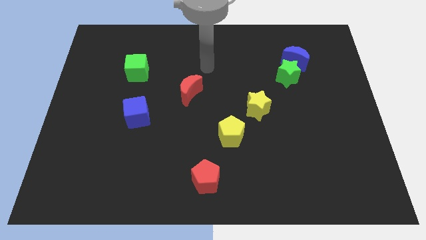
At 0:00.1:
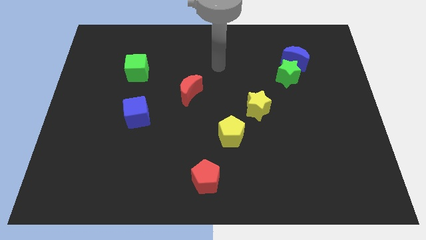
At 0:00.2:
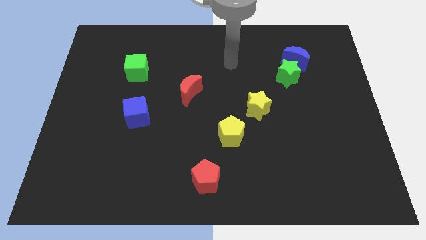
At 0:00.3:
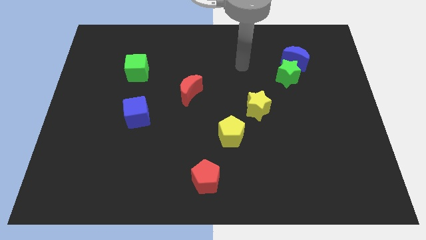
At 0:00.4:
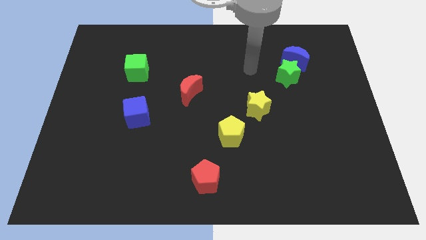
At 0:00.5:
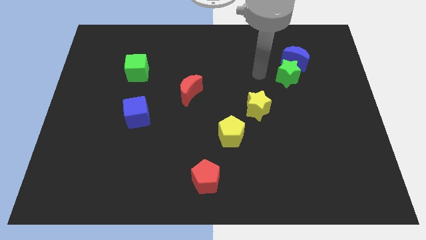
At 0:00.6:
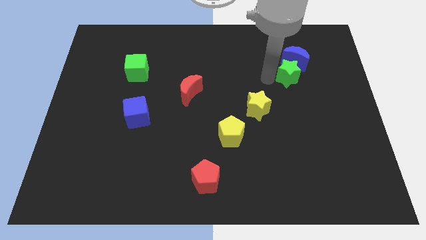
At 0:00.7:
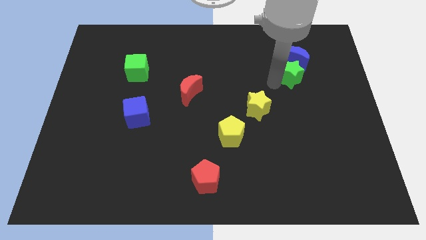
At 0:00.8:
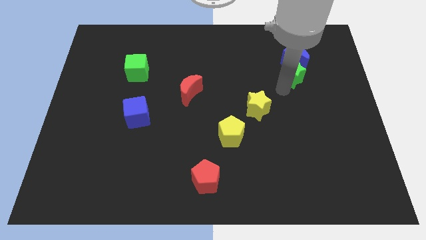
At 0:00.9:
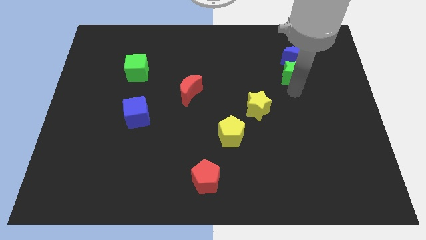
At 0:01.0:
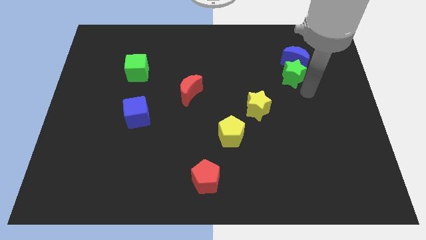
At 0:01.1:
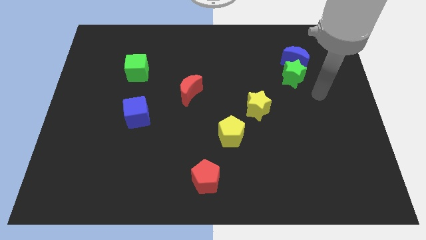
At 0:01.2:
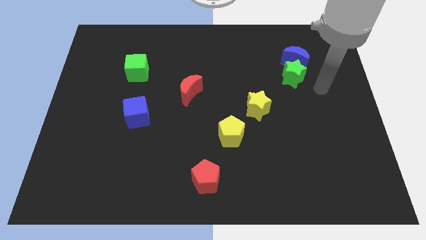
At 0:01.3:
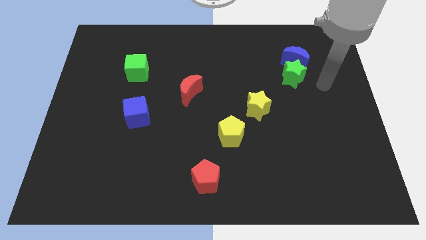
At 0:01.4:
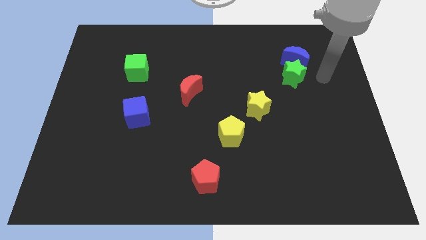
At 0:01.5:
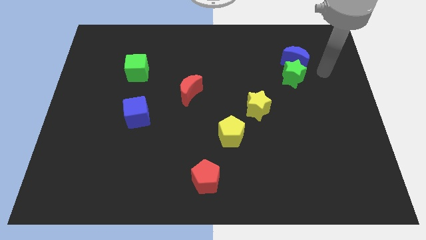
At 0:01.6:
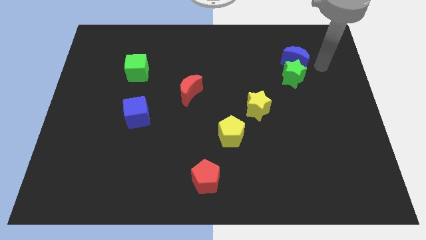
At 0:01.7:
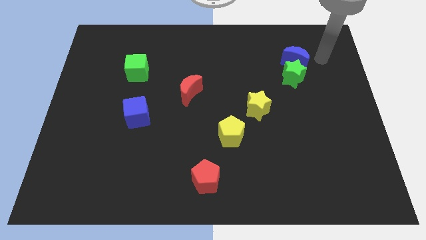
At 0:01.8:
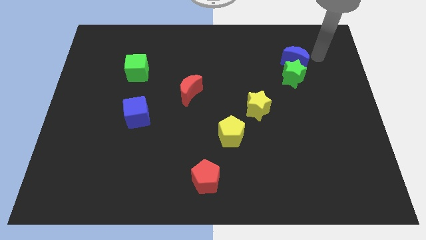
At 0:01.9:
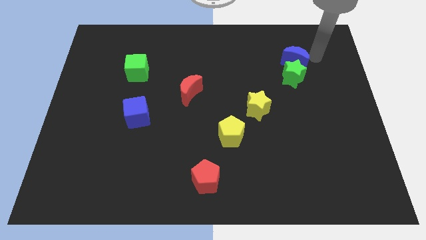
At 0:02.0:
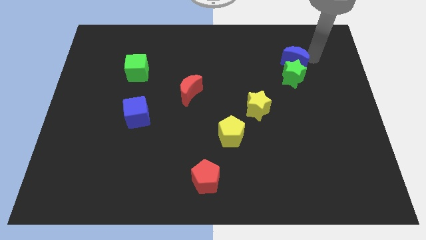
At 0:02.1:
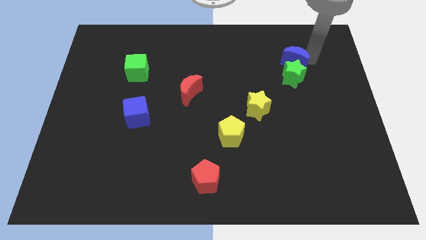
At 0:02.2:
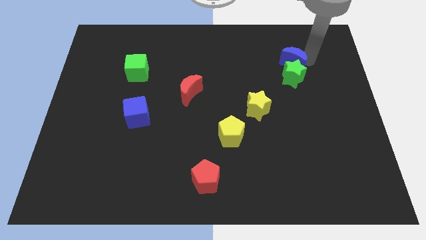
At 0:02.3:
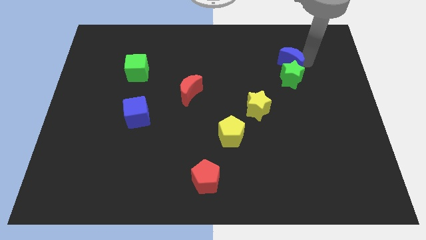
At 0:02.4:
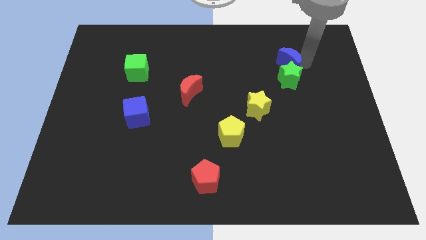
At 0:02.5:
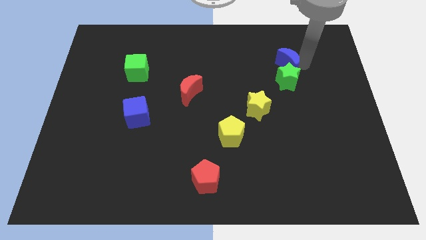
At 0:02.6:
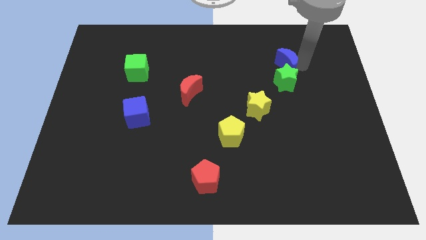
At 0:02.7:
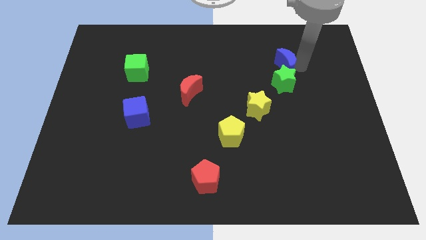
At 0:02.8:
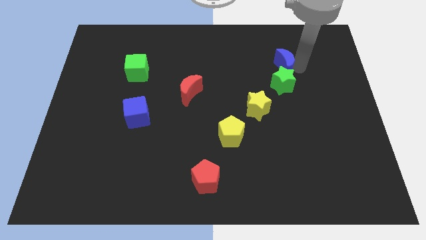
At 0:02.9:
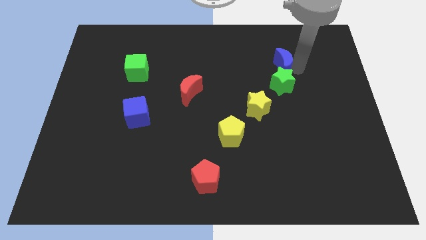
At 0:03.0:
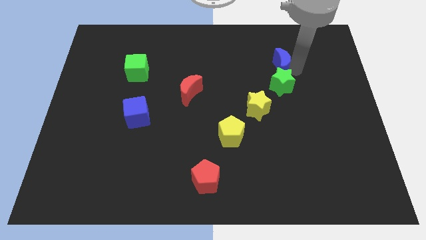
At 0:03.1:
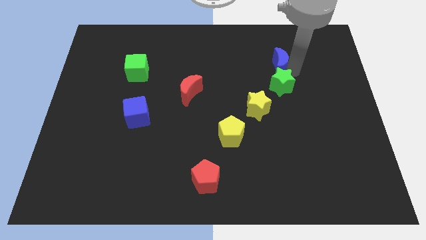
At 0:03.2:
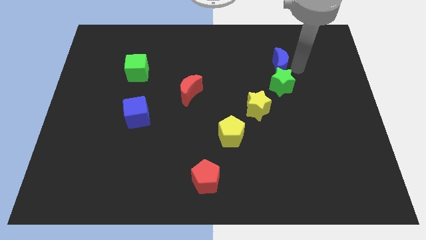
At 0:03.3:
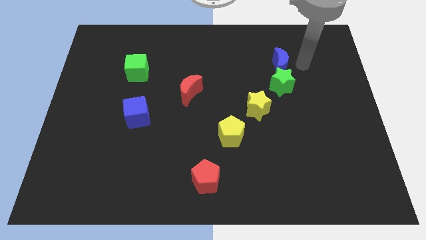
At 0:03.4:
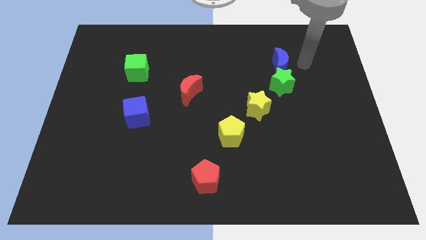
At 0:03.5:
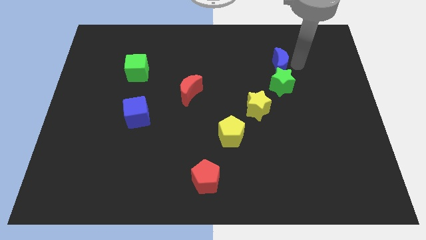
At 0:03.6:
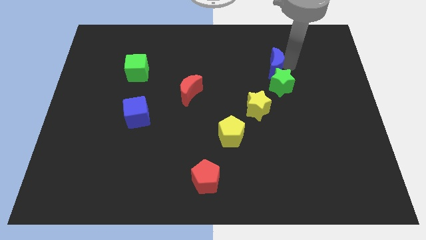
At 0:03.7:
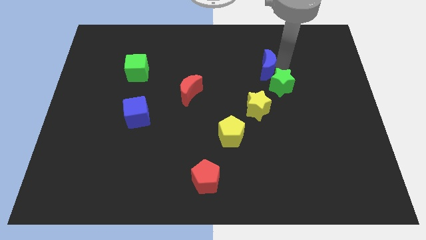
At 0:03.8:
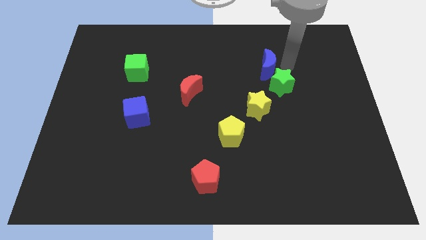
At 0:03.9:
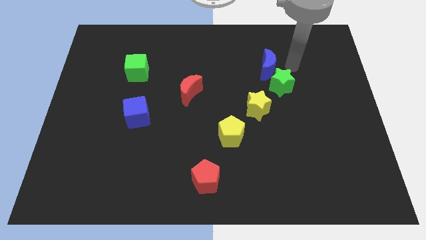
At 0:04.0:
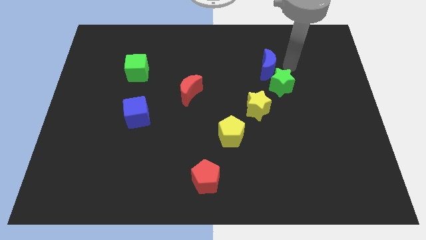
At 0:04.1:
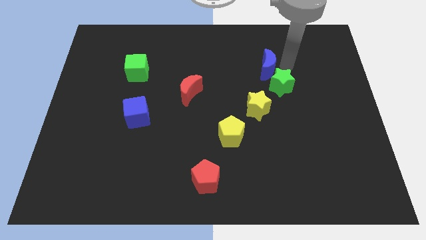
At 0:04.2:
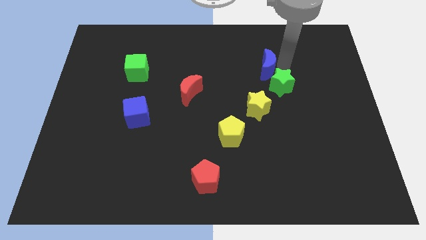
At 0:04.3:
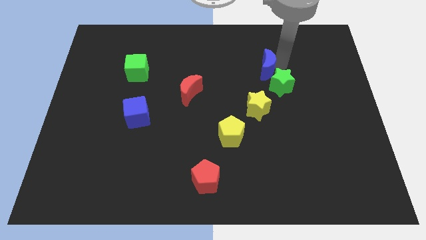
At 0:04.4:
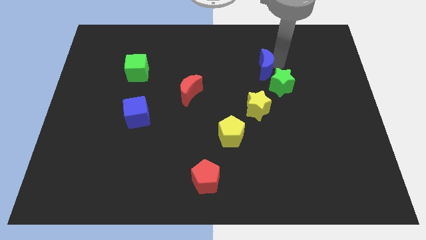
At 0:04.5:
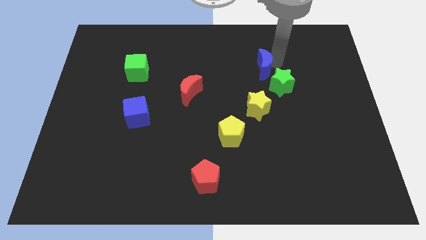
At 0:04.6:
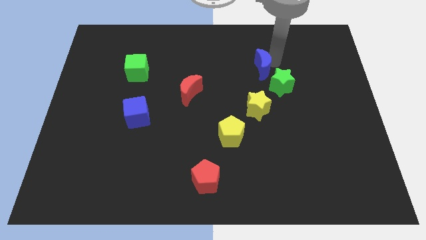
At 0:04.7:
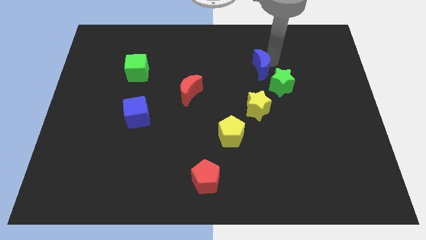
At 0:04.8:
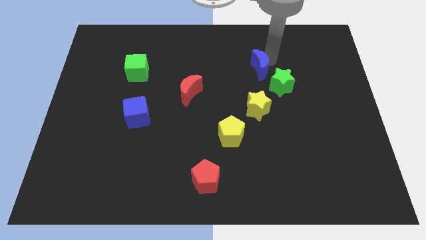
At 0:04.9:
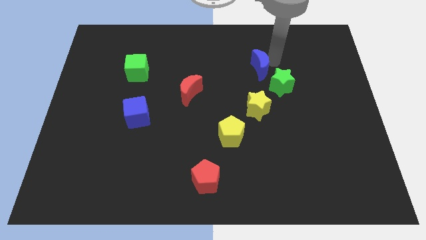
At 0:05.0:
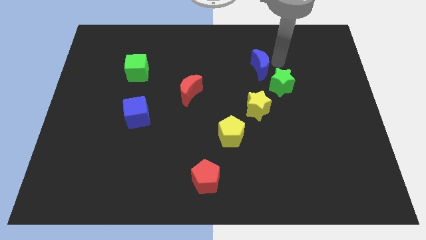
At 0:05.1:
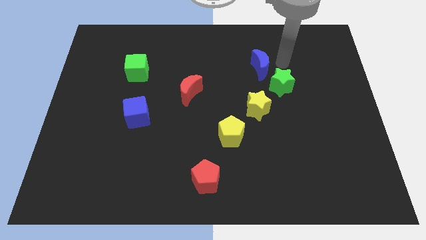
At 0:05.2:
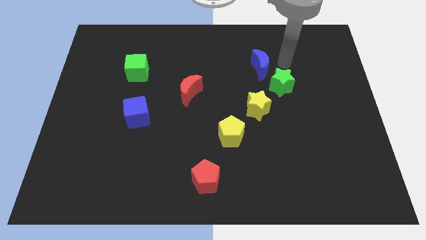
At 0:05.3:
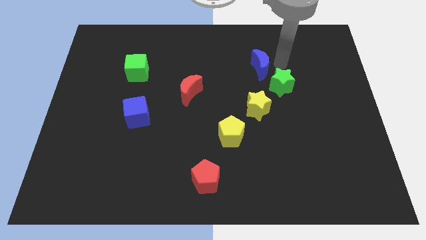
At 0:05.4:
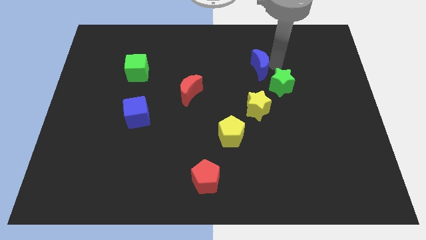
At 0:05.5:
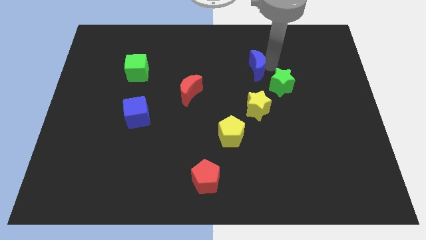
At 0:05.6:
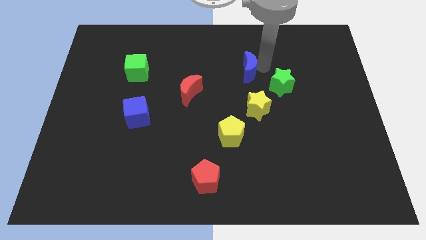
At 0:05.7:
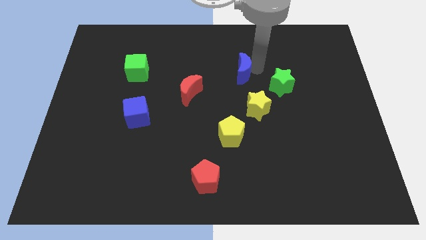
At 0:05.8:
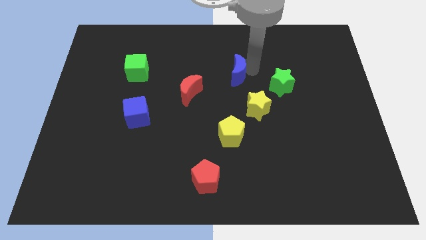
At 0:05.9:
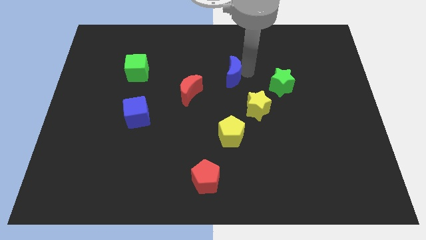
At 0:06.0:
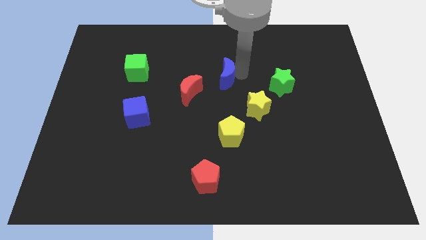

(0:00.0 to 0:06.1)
put the blue moon diagonally up and to the right of the red moon

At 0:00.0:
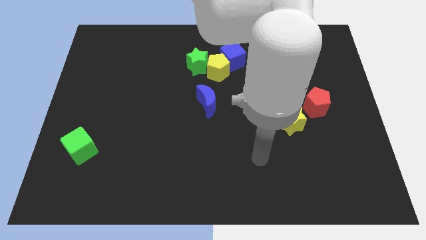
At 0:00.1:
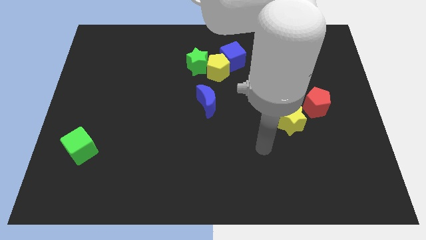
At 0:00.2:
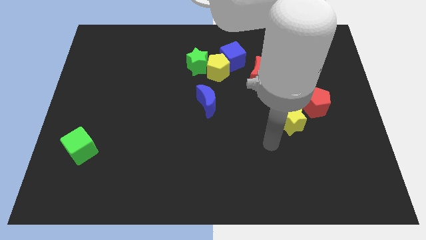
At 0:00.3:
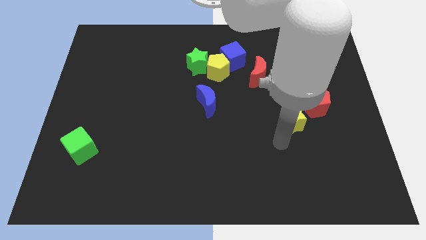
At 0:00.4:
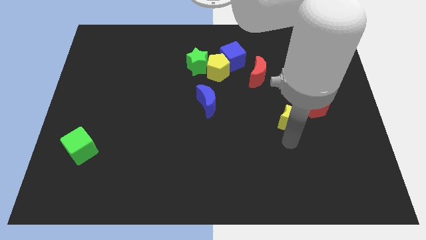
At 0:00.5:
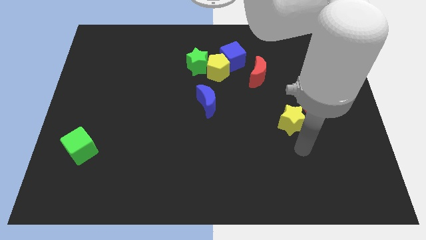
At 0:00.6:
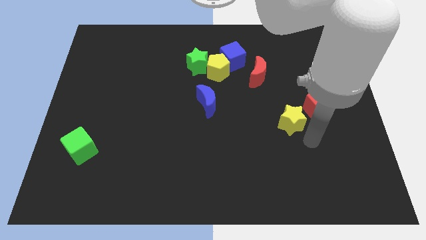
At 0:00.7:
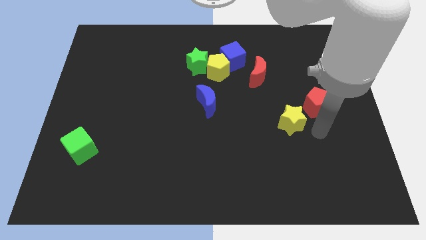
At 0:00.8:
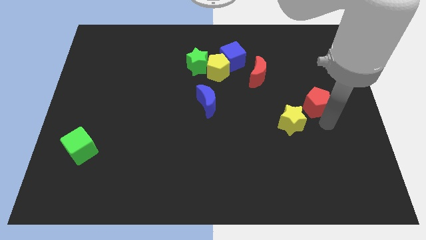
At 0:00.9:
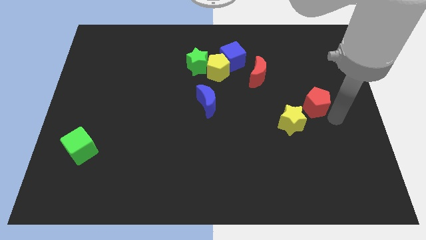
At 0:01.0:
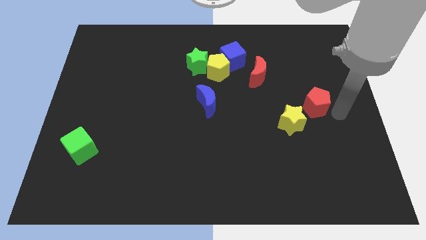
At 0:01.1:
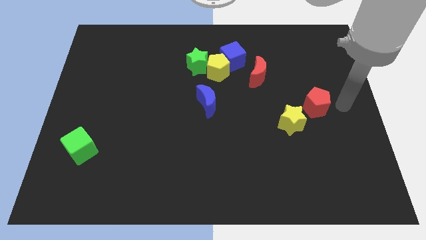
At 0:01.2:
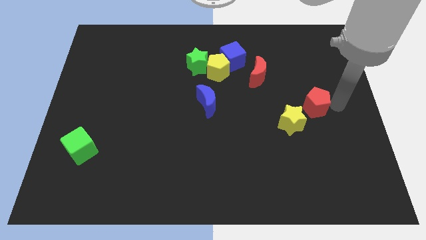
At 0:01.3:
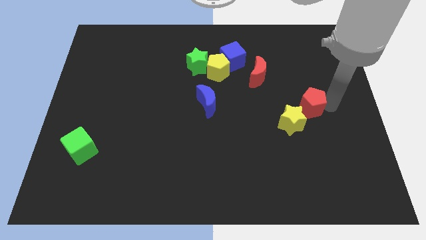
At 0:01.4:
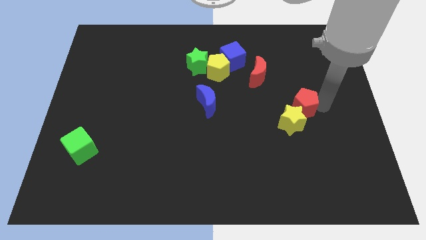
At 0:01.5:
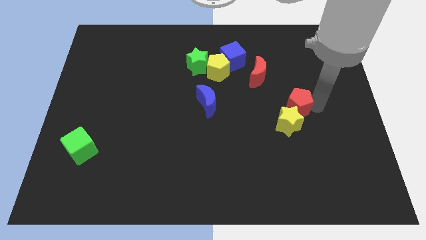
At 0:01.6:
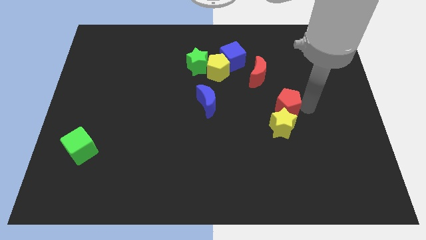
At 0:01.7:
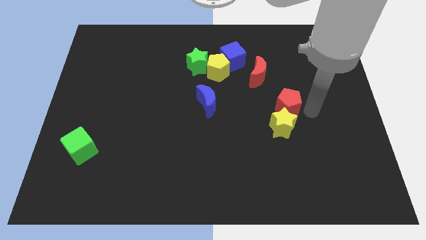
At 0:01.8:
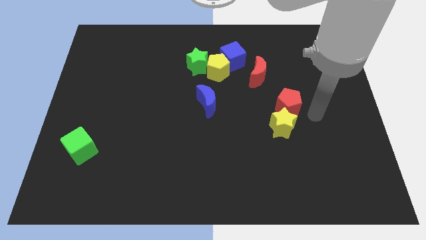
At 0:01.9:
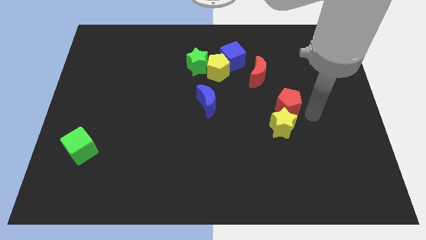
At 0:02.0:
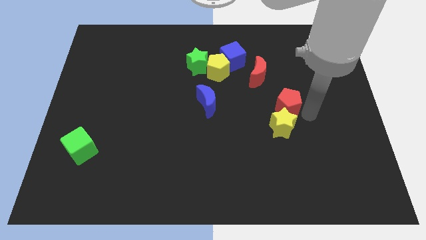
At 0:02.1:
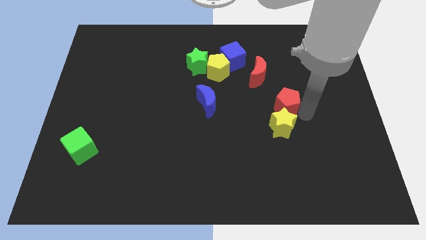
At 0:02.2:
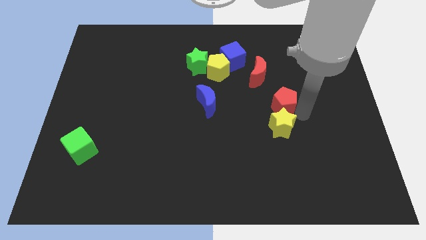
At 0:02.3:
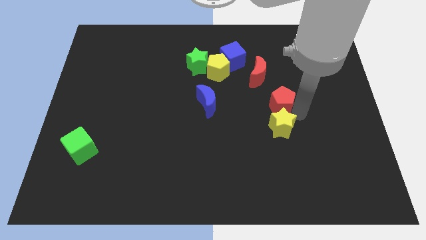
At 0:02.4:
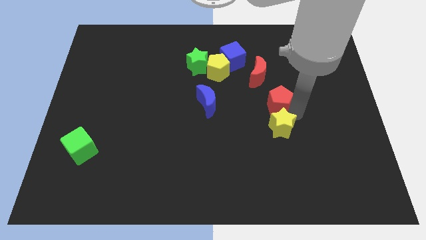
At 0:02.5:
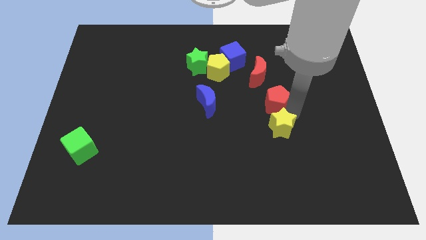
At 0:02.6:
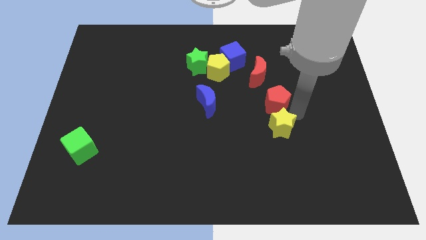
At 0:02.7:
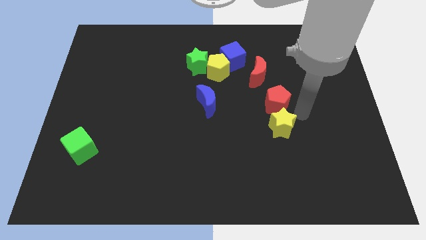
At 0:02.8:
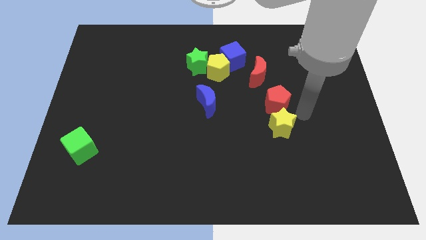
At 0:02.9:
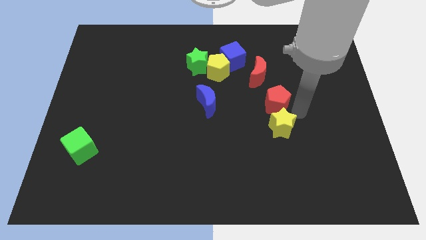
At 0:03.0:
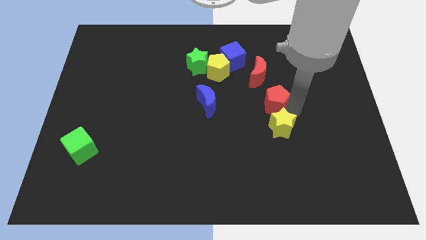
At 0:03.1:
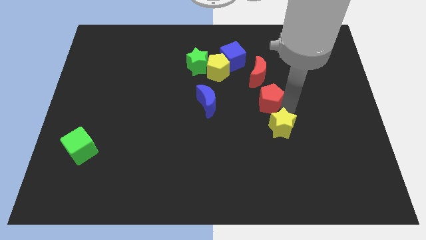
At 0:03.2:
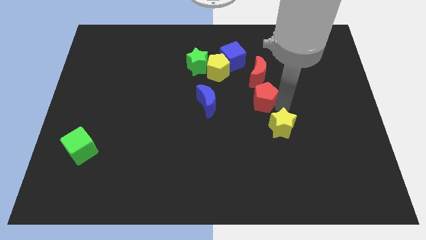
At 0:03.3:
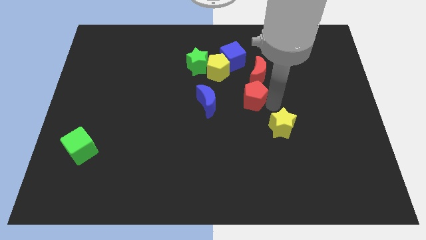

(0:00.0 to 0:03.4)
slide the red pentagon to the bottom right of the yellow pentagon
